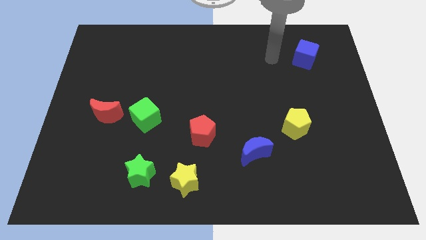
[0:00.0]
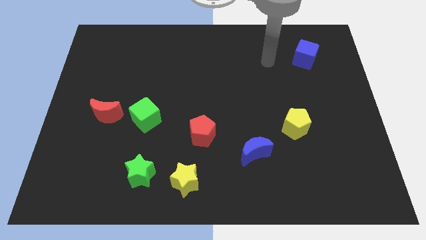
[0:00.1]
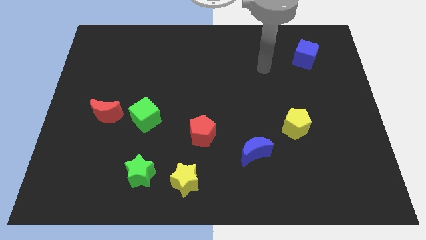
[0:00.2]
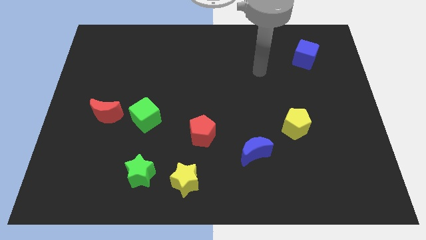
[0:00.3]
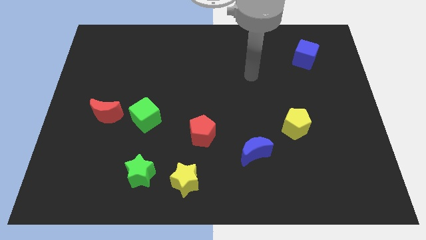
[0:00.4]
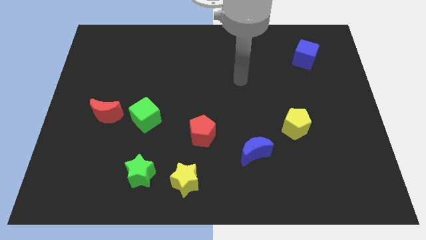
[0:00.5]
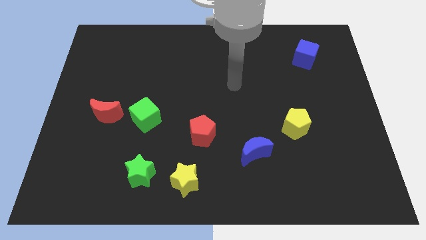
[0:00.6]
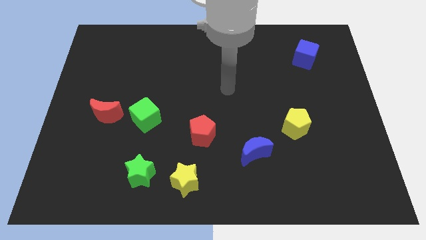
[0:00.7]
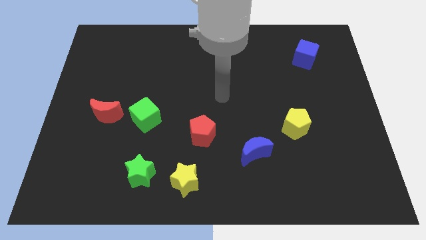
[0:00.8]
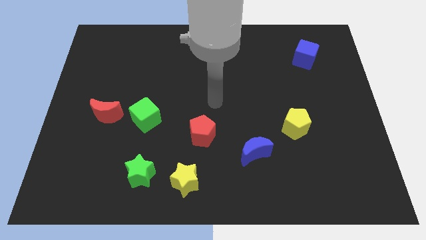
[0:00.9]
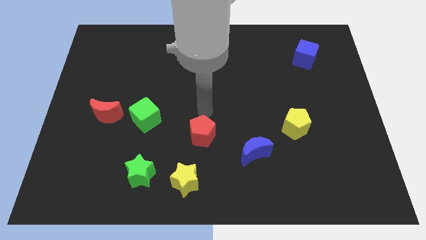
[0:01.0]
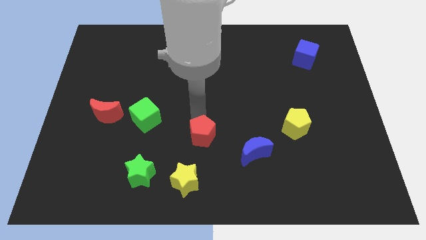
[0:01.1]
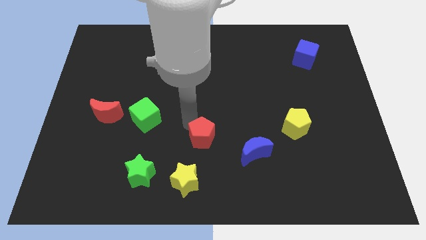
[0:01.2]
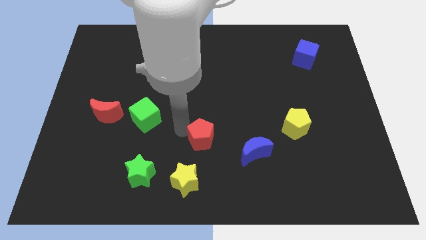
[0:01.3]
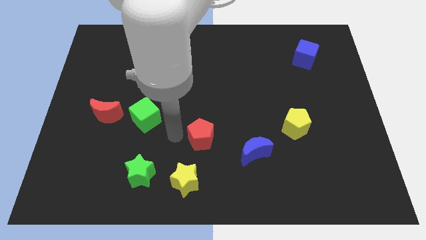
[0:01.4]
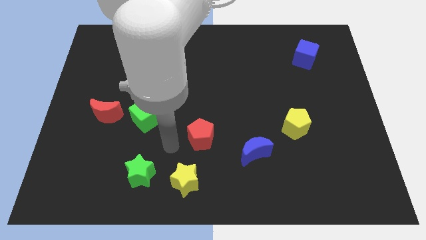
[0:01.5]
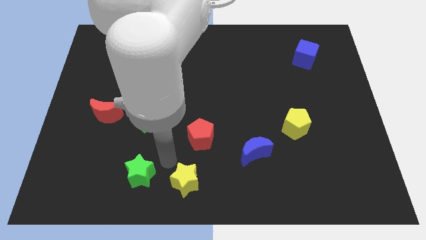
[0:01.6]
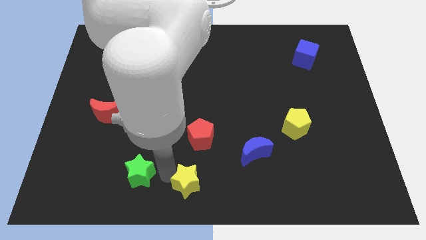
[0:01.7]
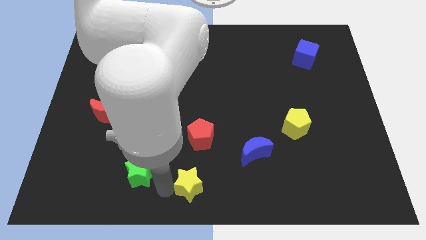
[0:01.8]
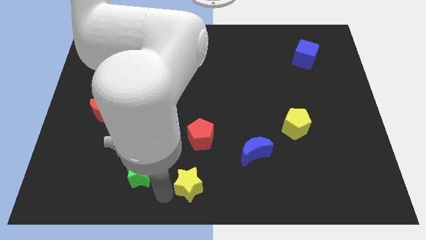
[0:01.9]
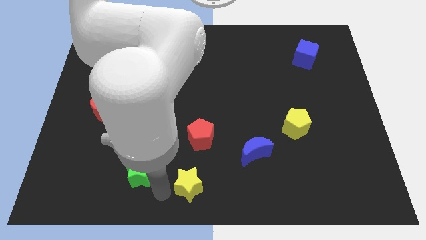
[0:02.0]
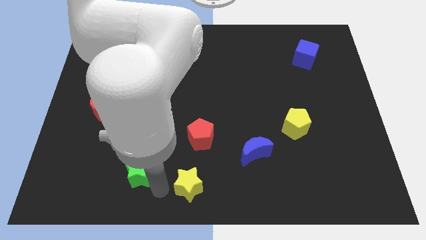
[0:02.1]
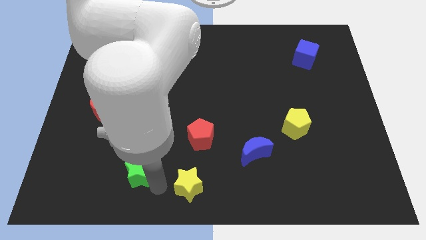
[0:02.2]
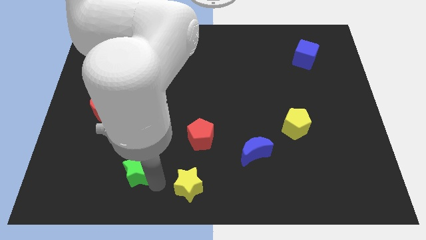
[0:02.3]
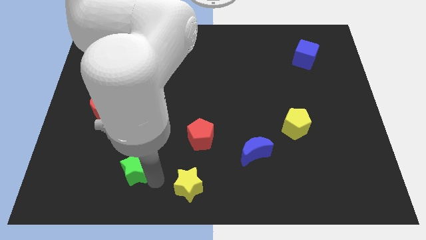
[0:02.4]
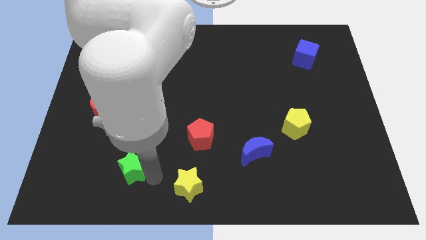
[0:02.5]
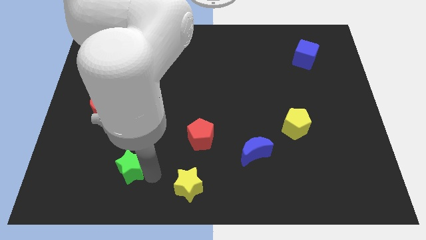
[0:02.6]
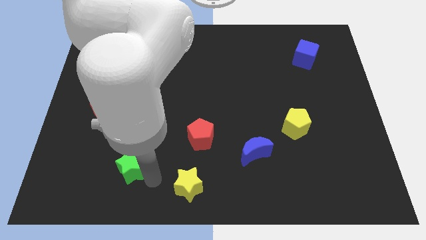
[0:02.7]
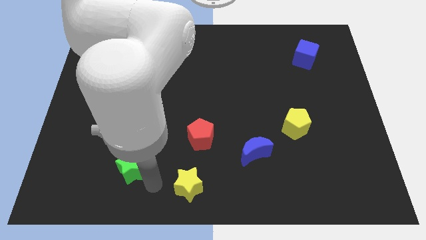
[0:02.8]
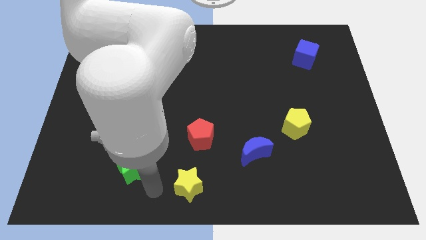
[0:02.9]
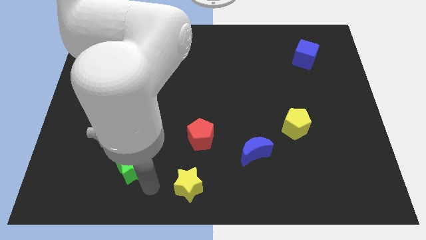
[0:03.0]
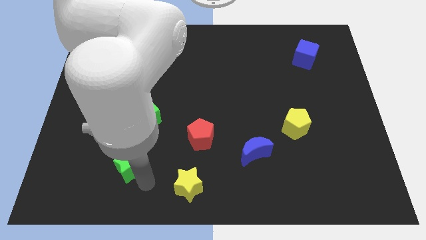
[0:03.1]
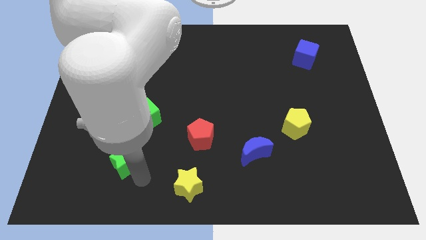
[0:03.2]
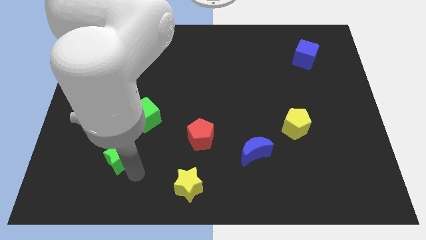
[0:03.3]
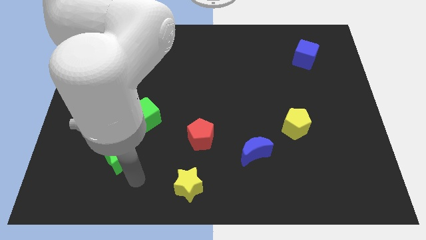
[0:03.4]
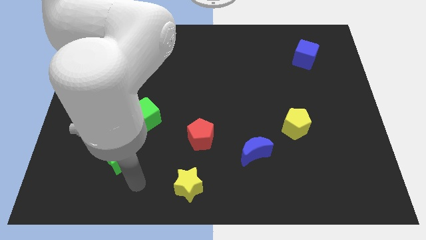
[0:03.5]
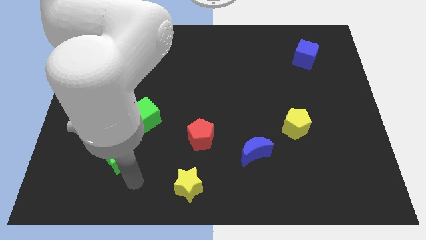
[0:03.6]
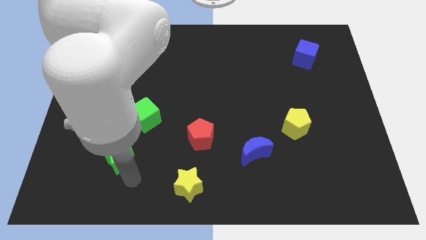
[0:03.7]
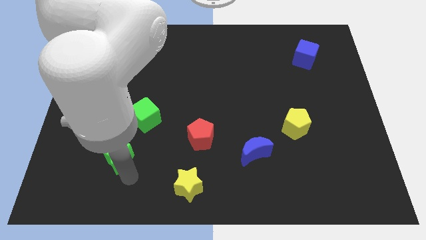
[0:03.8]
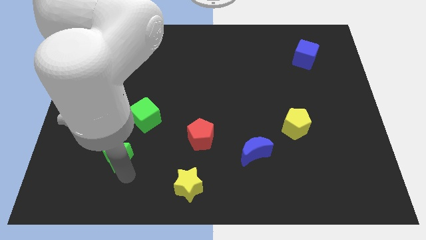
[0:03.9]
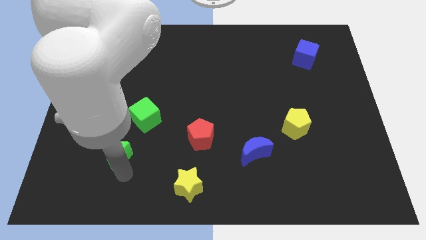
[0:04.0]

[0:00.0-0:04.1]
slightly push the green star diagonally upwards and left

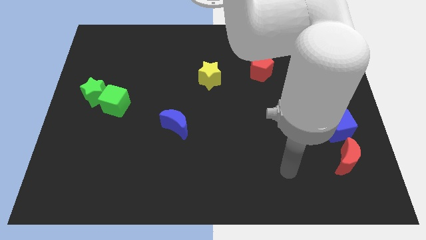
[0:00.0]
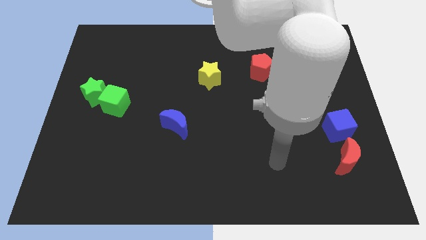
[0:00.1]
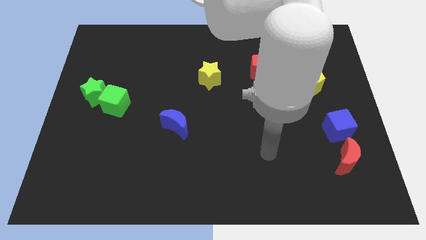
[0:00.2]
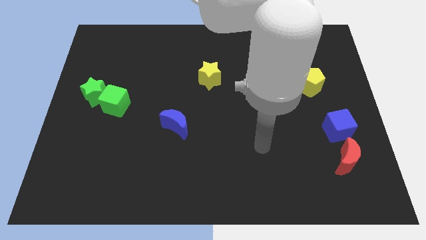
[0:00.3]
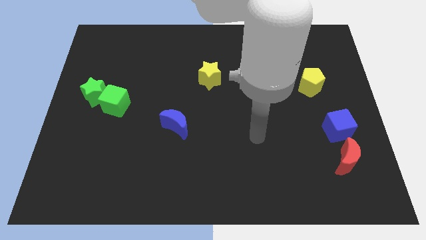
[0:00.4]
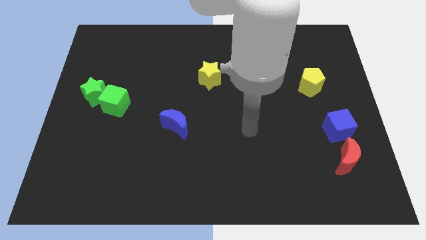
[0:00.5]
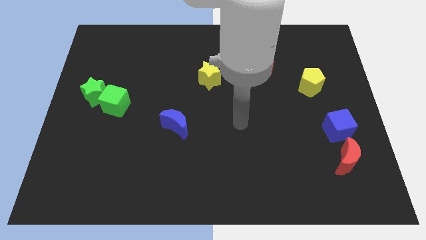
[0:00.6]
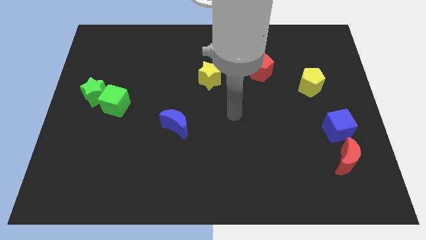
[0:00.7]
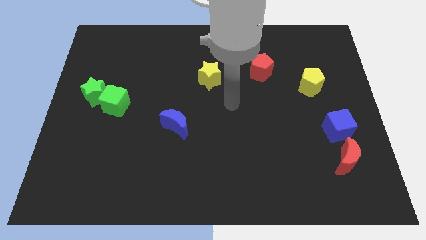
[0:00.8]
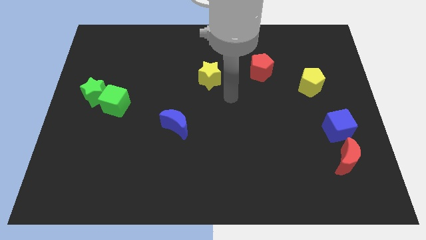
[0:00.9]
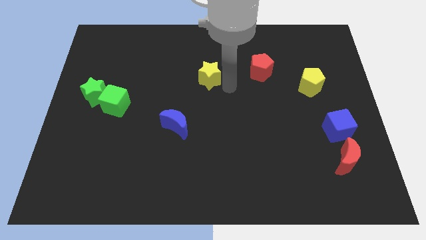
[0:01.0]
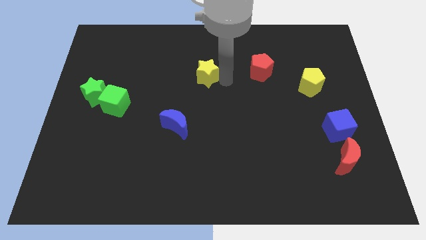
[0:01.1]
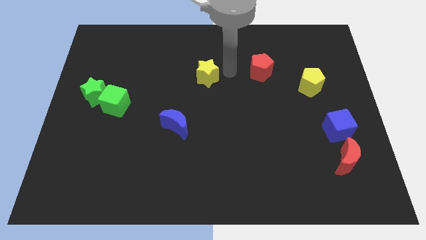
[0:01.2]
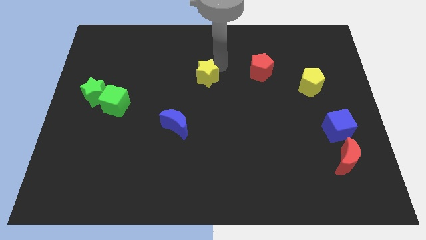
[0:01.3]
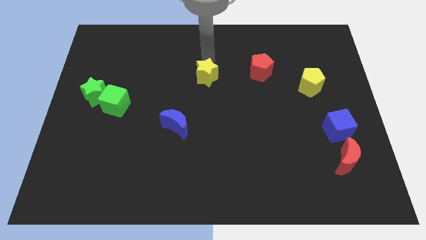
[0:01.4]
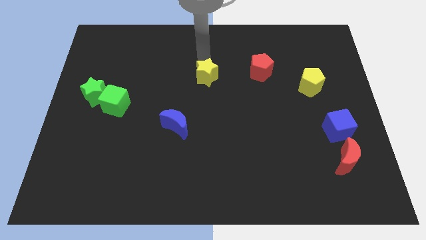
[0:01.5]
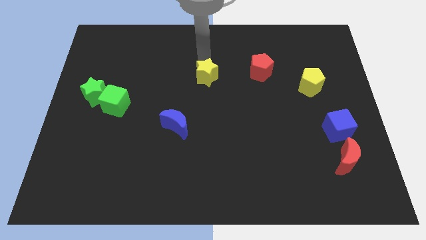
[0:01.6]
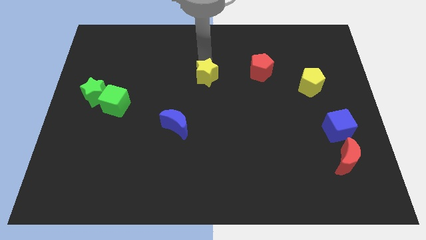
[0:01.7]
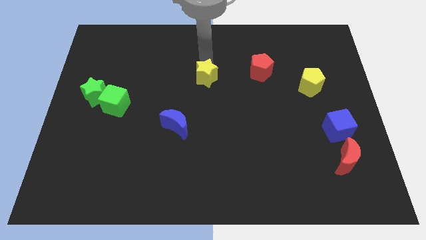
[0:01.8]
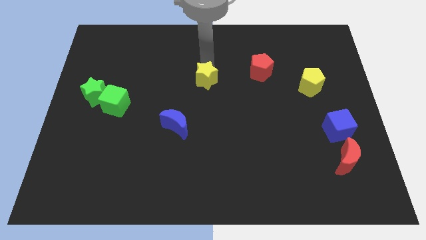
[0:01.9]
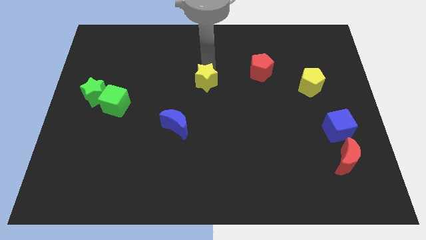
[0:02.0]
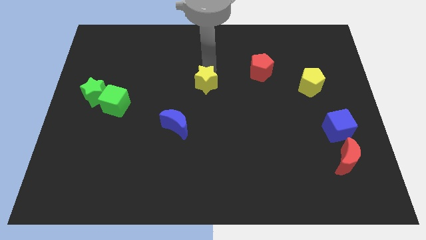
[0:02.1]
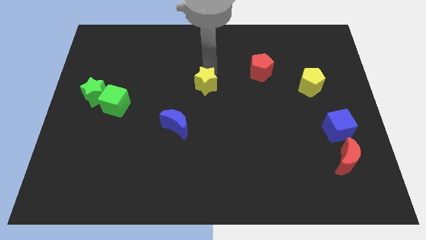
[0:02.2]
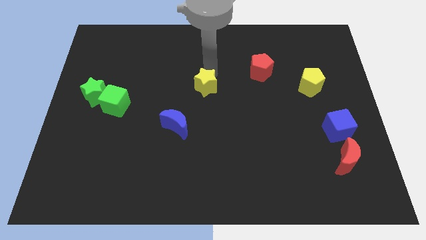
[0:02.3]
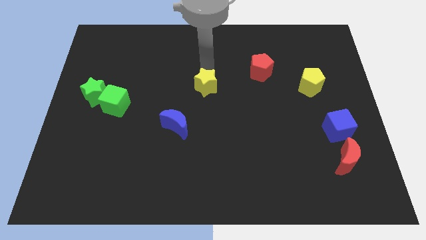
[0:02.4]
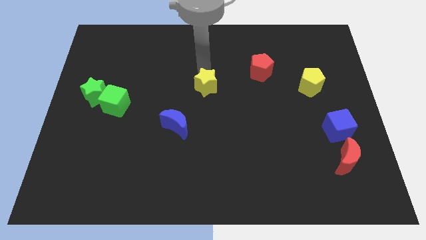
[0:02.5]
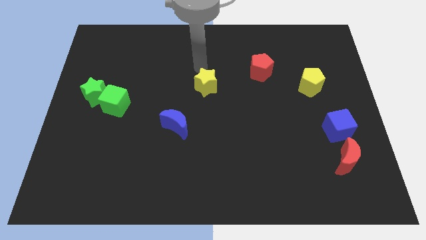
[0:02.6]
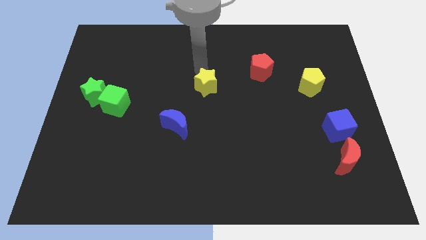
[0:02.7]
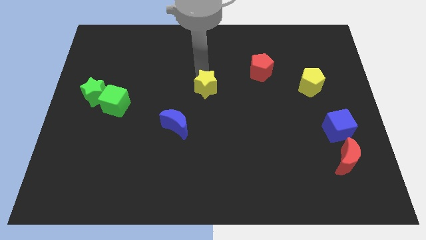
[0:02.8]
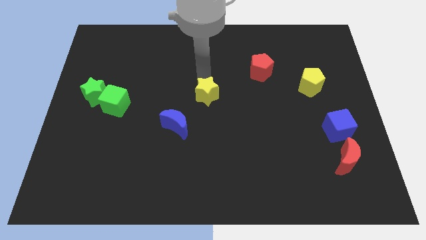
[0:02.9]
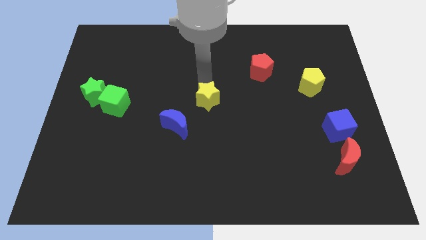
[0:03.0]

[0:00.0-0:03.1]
move the yellow star down somewhat

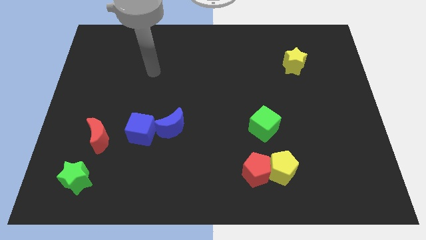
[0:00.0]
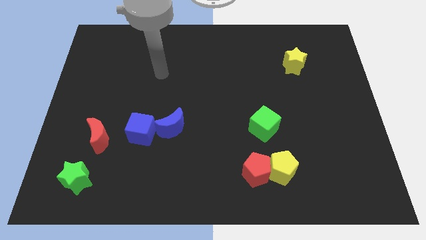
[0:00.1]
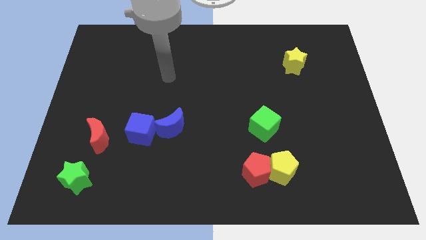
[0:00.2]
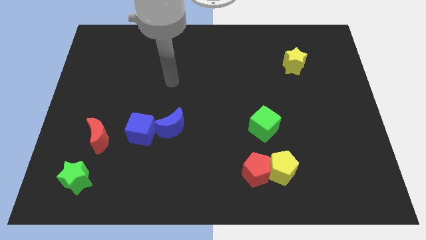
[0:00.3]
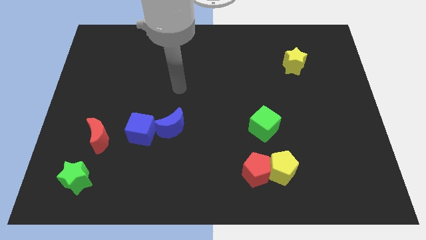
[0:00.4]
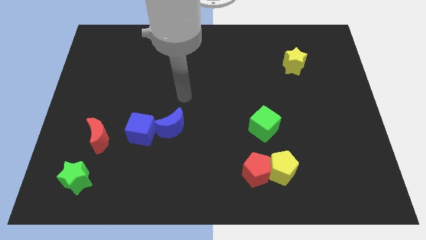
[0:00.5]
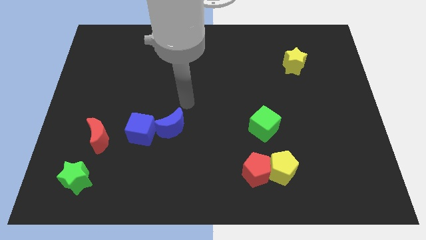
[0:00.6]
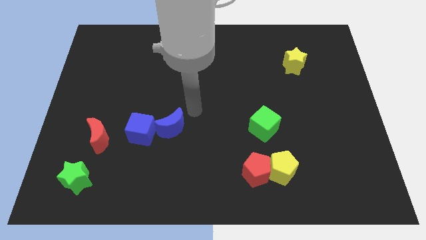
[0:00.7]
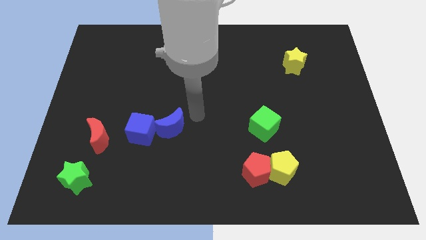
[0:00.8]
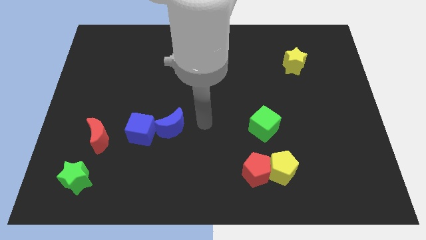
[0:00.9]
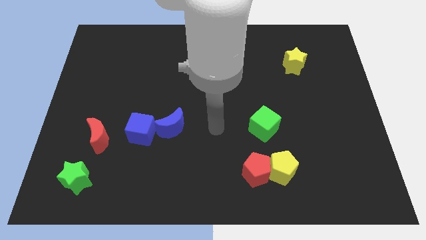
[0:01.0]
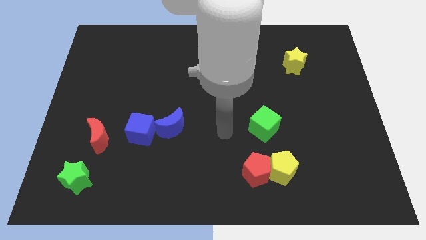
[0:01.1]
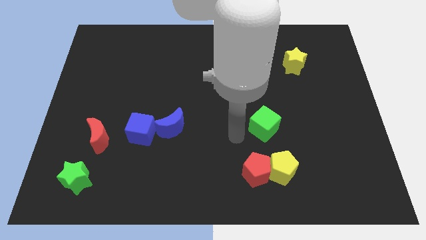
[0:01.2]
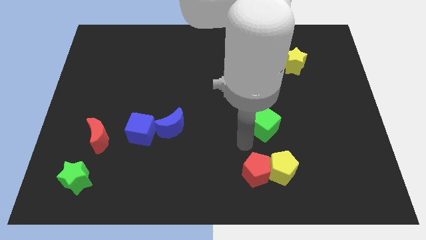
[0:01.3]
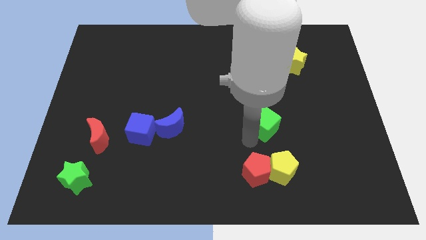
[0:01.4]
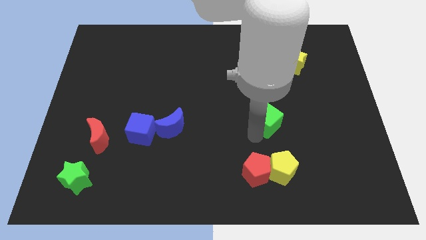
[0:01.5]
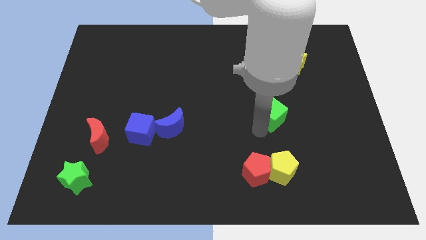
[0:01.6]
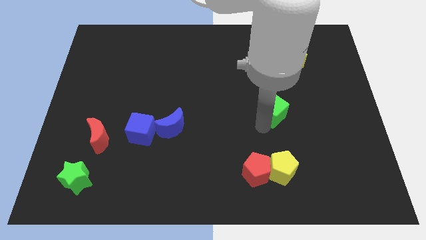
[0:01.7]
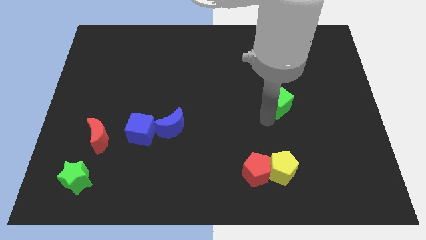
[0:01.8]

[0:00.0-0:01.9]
slightly push the green cube diagonally up and right
